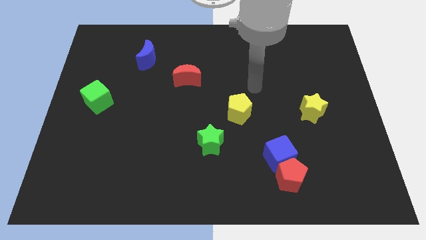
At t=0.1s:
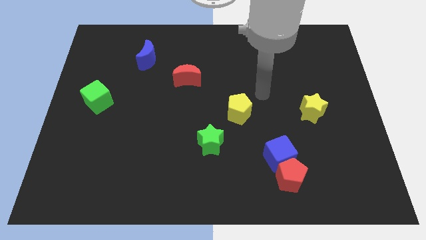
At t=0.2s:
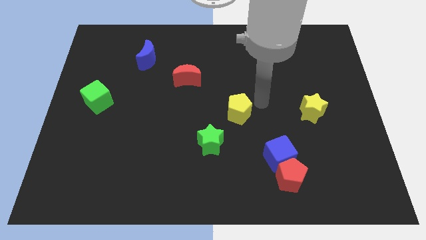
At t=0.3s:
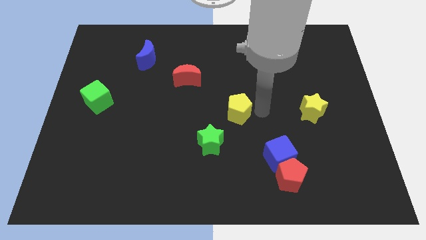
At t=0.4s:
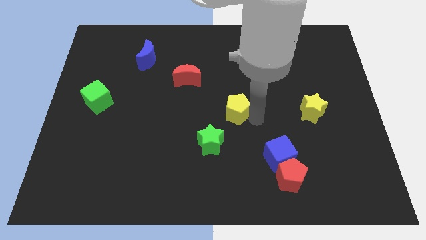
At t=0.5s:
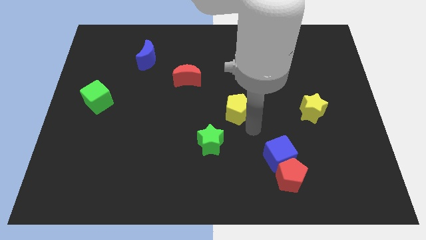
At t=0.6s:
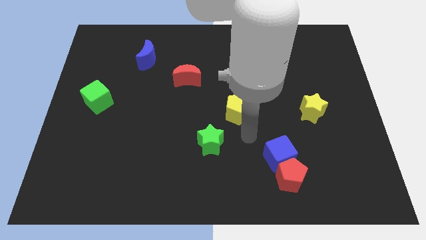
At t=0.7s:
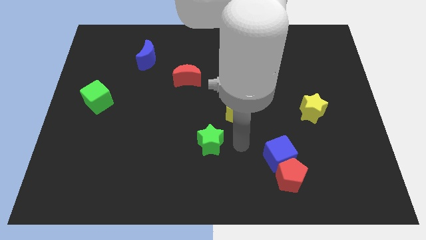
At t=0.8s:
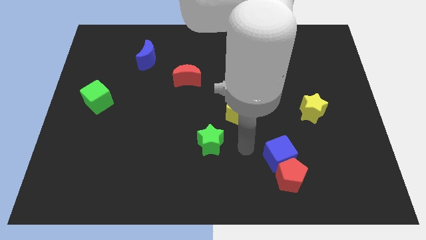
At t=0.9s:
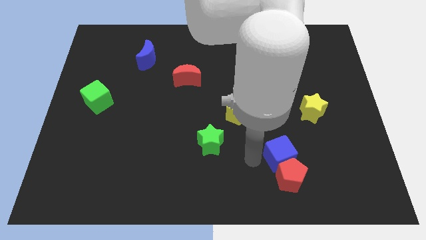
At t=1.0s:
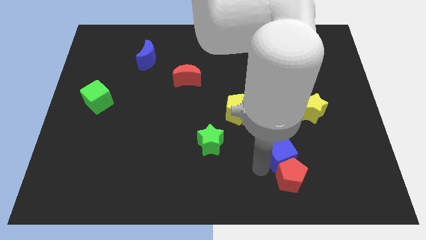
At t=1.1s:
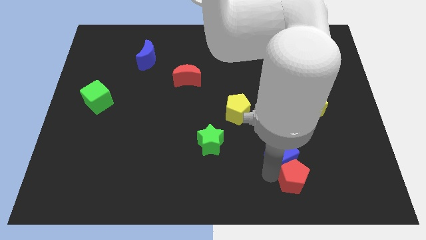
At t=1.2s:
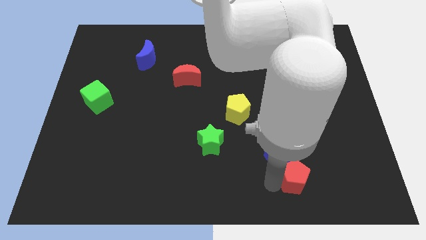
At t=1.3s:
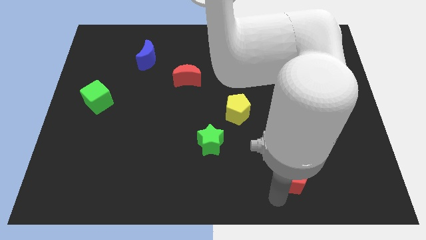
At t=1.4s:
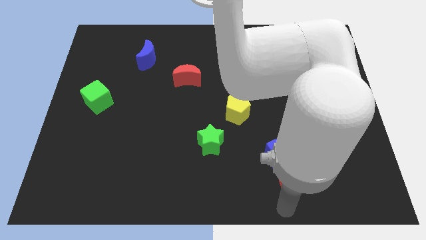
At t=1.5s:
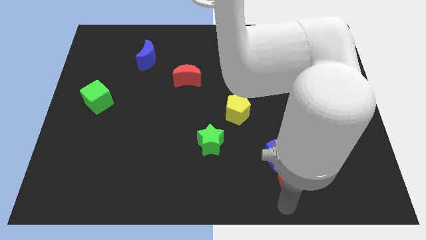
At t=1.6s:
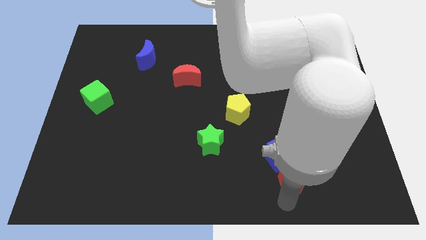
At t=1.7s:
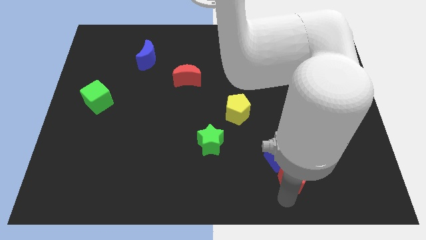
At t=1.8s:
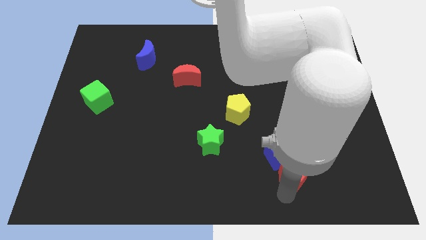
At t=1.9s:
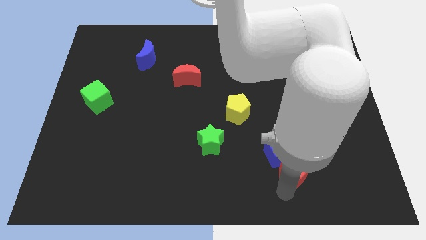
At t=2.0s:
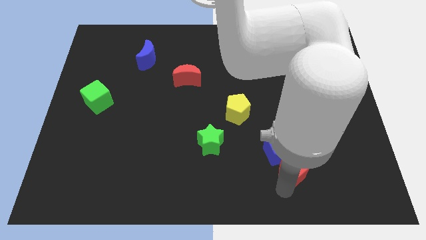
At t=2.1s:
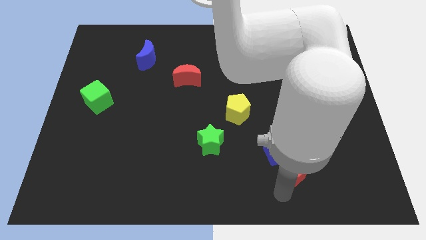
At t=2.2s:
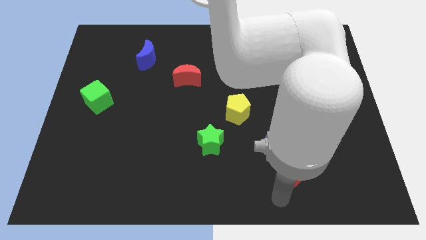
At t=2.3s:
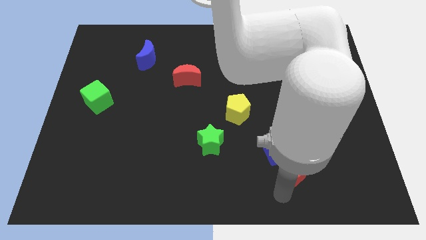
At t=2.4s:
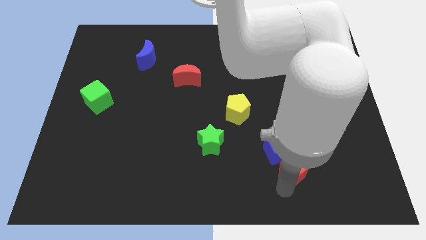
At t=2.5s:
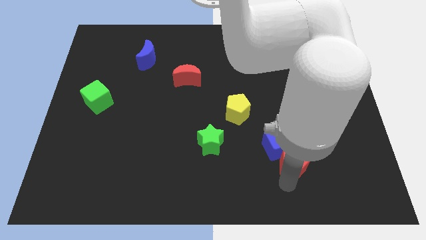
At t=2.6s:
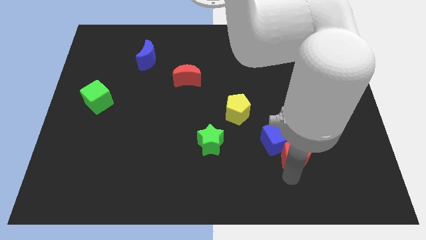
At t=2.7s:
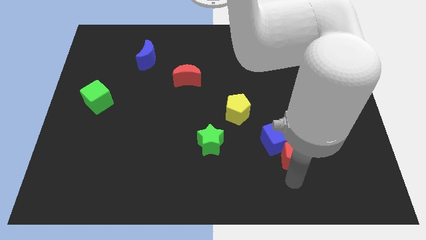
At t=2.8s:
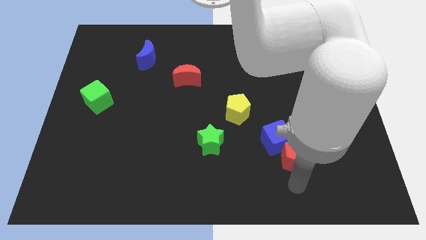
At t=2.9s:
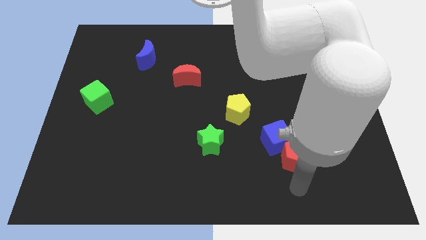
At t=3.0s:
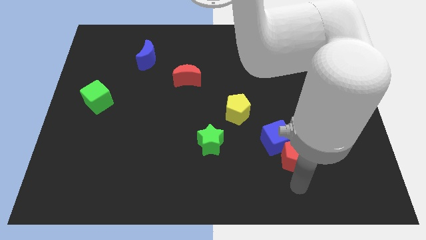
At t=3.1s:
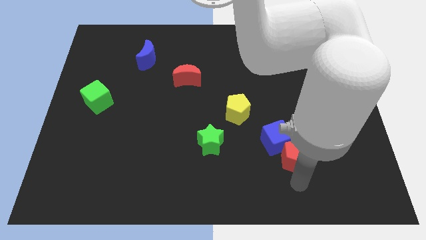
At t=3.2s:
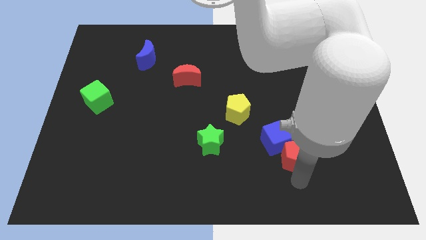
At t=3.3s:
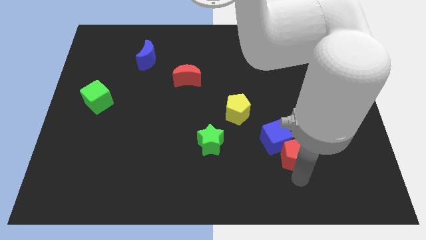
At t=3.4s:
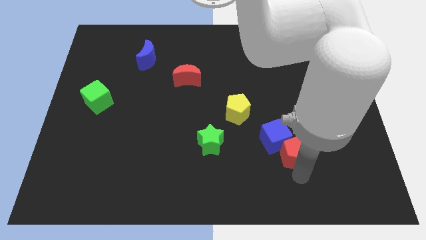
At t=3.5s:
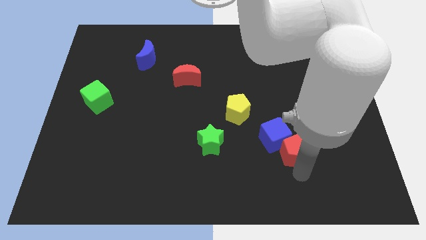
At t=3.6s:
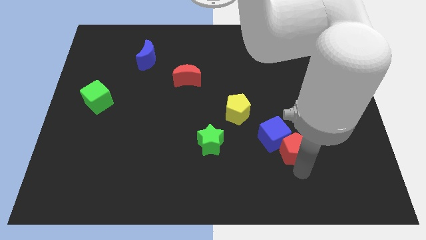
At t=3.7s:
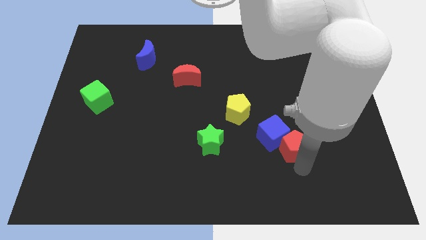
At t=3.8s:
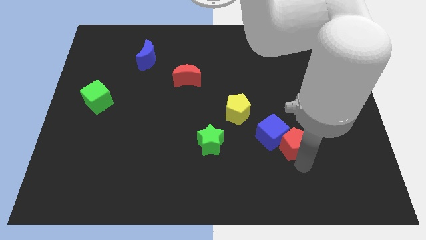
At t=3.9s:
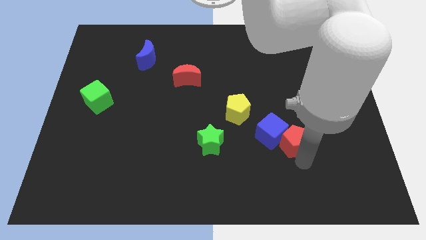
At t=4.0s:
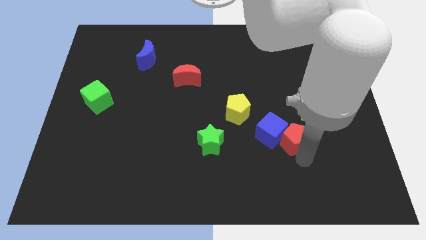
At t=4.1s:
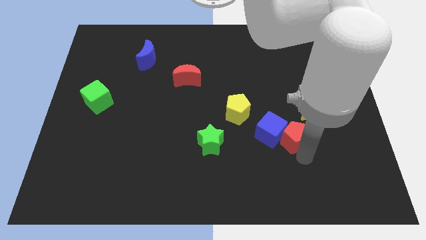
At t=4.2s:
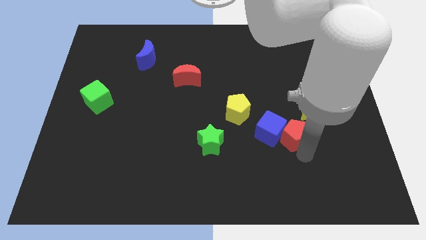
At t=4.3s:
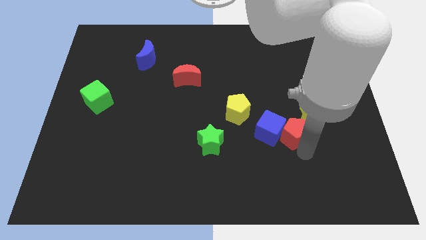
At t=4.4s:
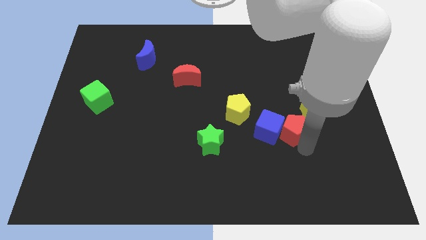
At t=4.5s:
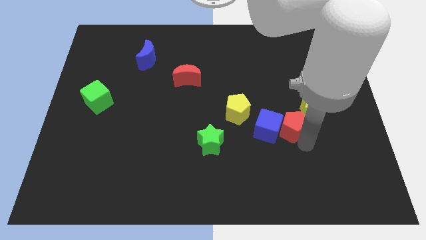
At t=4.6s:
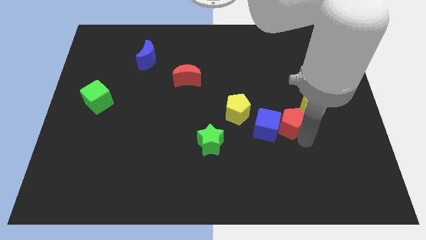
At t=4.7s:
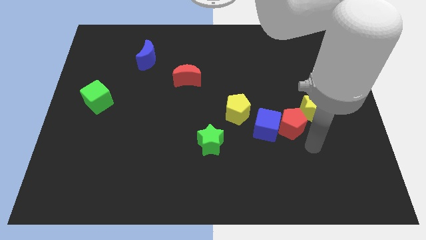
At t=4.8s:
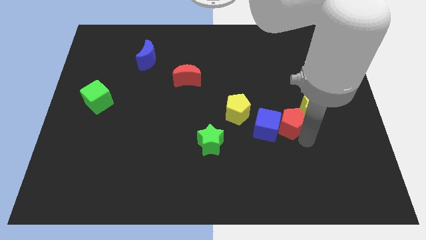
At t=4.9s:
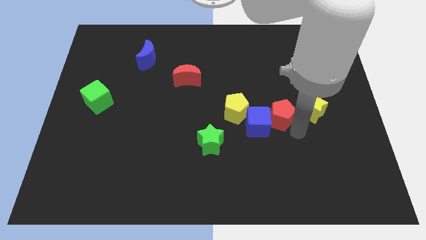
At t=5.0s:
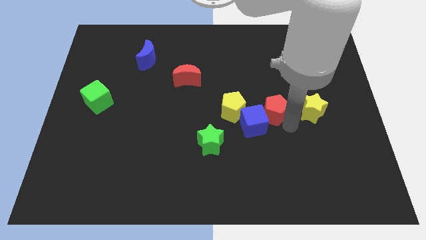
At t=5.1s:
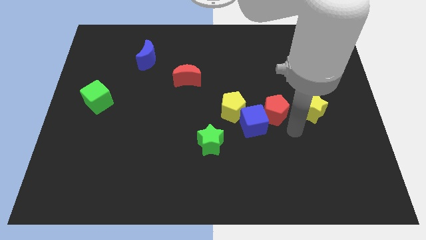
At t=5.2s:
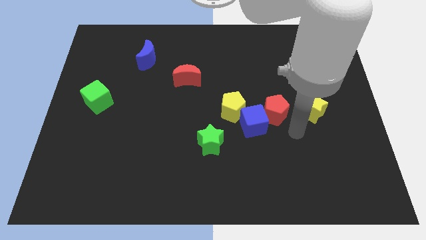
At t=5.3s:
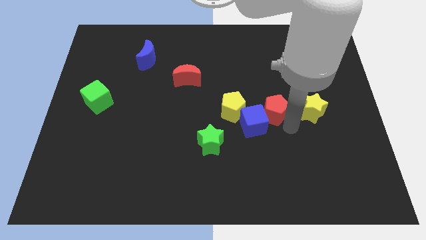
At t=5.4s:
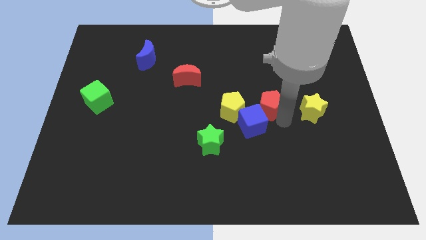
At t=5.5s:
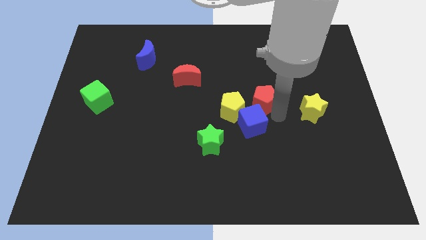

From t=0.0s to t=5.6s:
move the red pentagon to the top right side of the yellow pentagon

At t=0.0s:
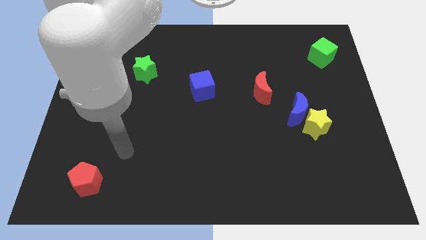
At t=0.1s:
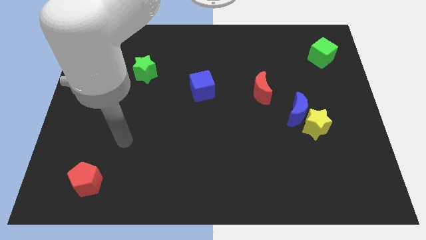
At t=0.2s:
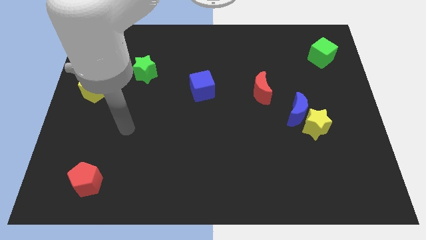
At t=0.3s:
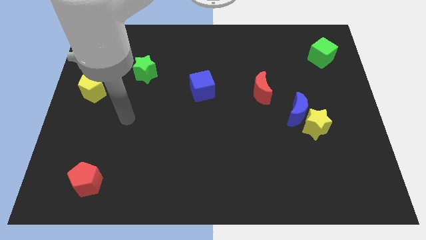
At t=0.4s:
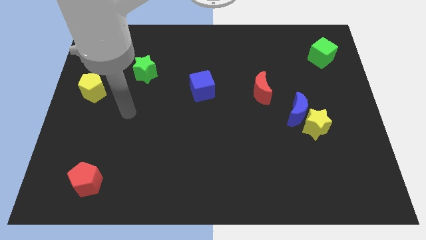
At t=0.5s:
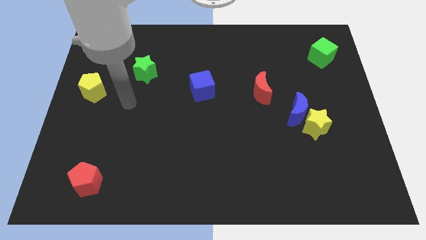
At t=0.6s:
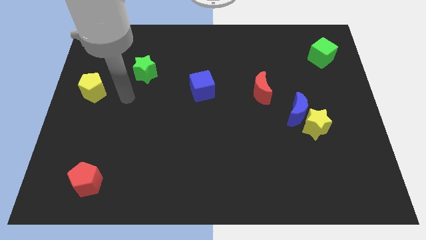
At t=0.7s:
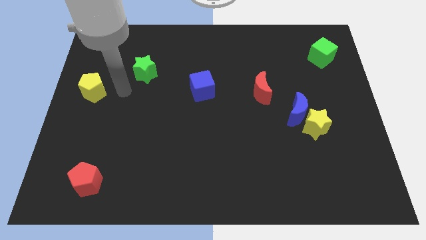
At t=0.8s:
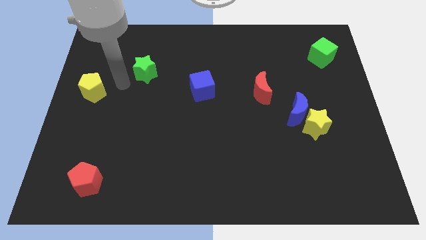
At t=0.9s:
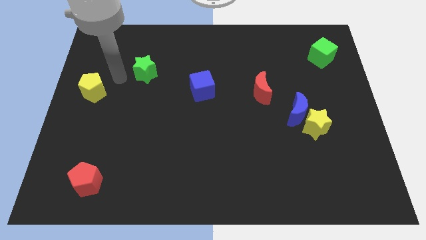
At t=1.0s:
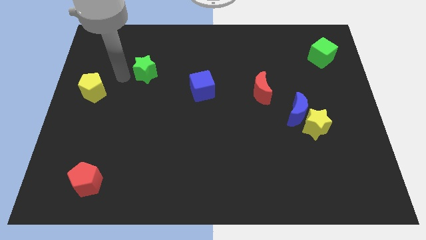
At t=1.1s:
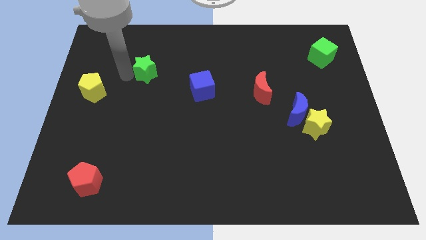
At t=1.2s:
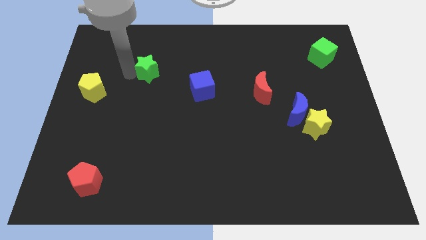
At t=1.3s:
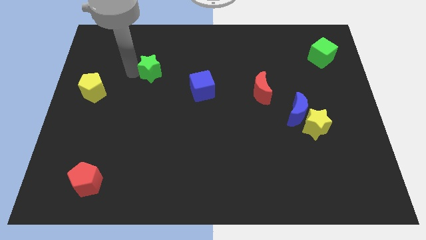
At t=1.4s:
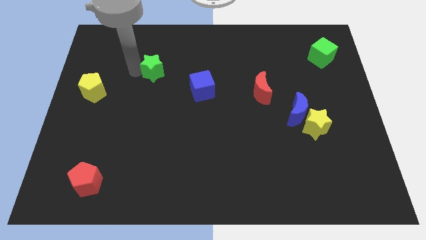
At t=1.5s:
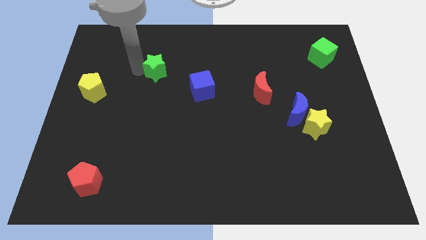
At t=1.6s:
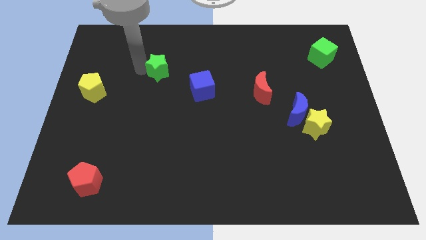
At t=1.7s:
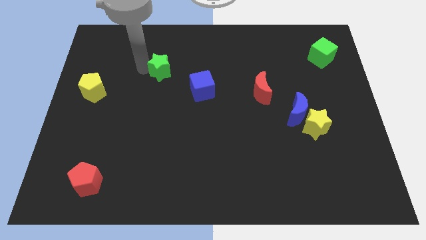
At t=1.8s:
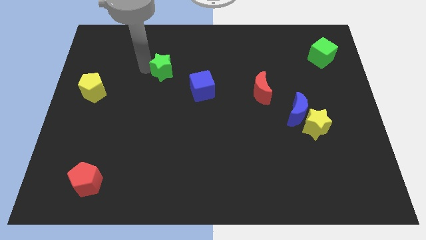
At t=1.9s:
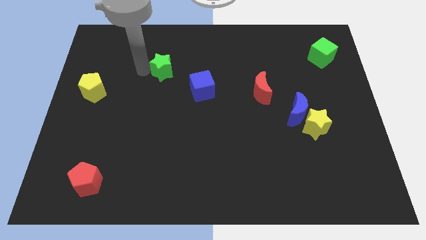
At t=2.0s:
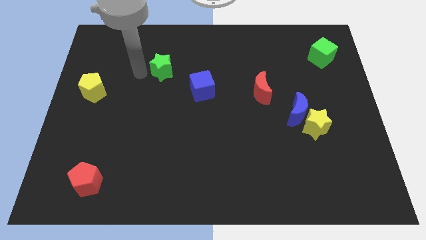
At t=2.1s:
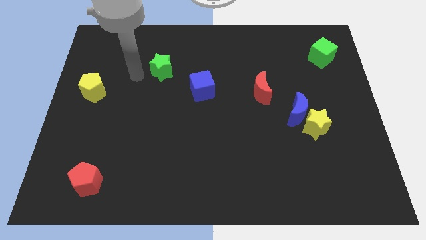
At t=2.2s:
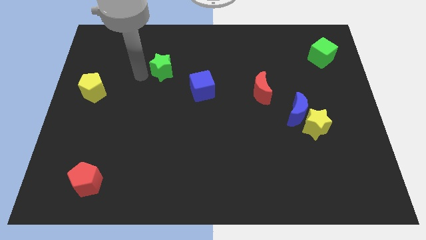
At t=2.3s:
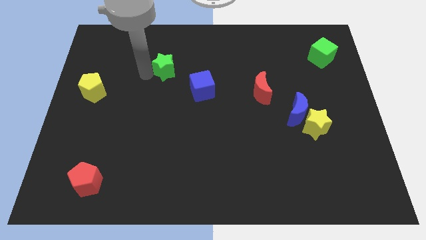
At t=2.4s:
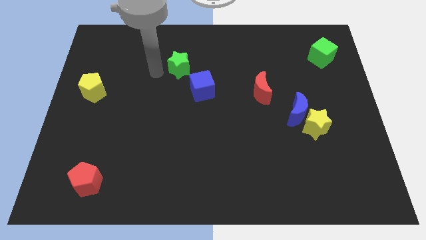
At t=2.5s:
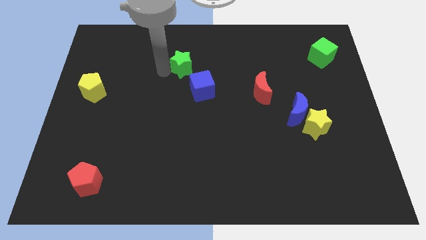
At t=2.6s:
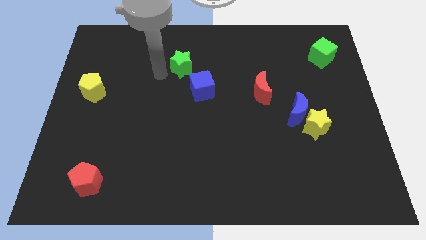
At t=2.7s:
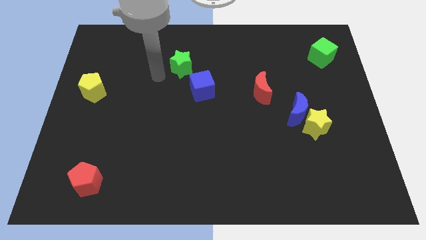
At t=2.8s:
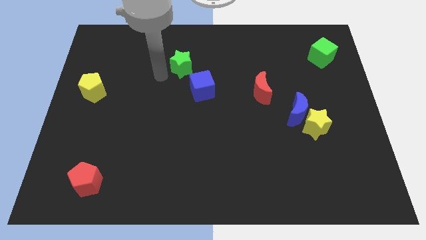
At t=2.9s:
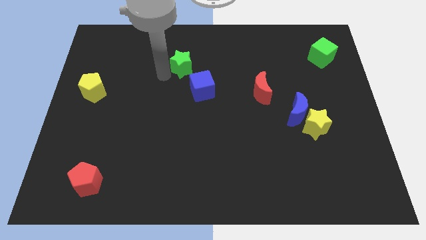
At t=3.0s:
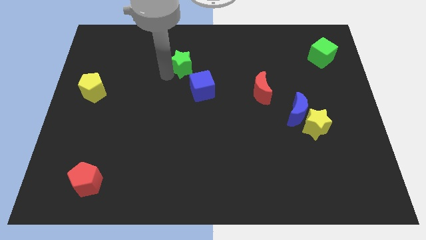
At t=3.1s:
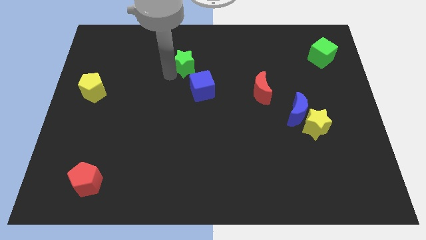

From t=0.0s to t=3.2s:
push the green star to the top of the blue cube
